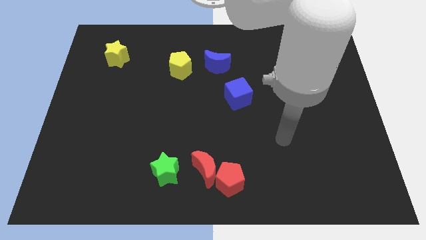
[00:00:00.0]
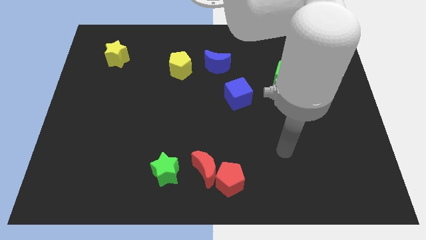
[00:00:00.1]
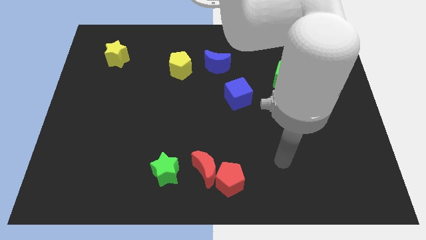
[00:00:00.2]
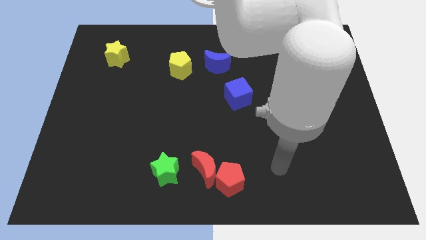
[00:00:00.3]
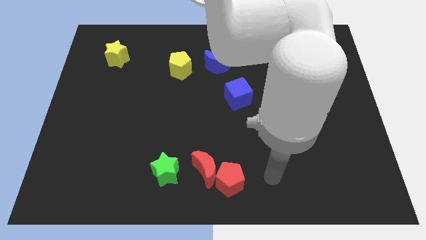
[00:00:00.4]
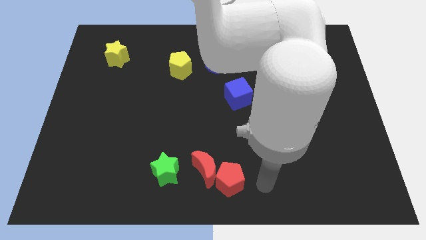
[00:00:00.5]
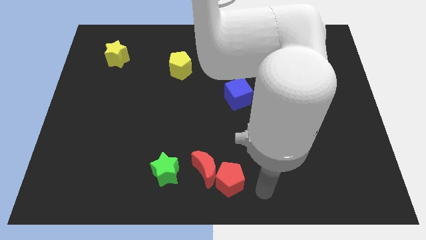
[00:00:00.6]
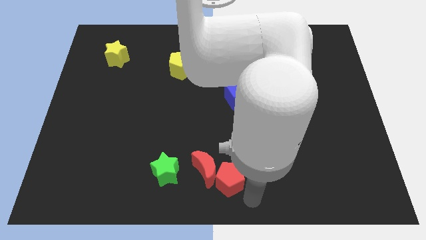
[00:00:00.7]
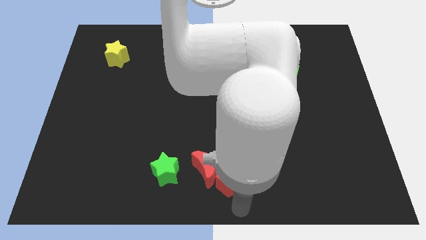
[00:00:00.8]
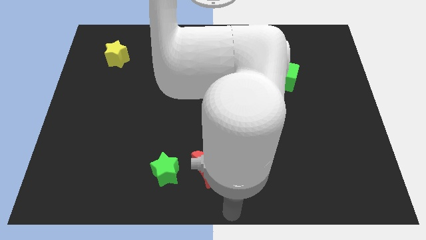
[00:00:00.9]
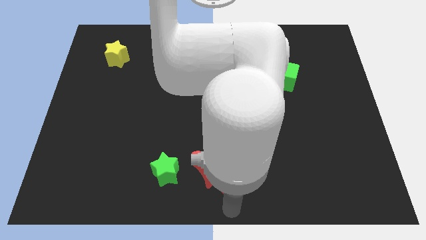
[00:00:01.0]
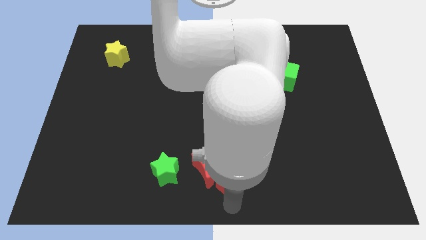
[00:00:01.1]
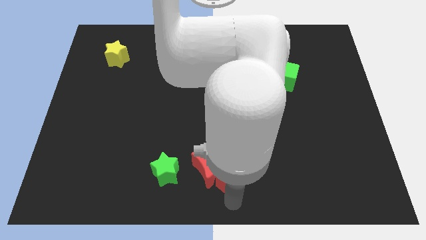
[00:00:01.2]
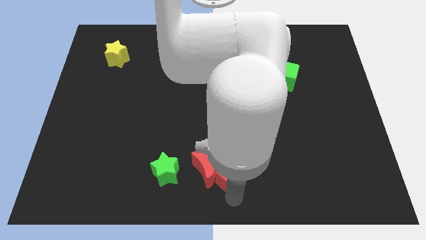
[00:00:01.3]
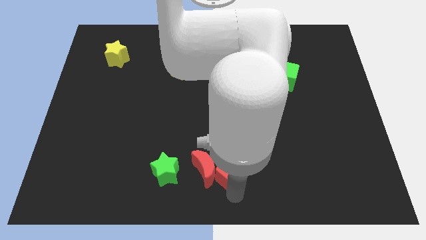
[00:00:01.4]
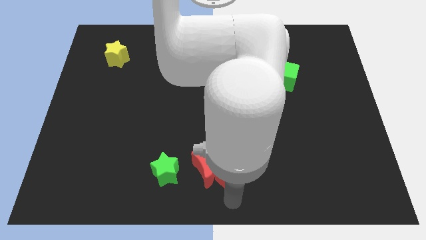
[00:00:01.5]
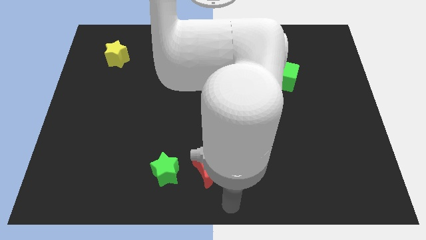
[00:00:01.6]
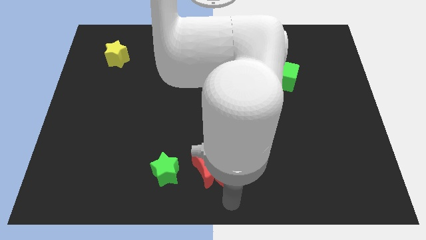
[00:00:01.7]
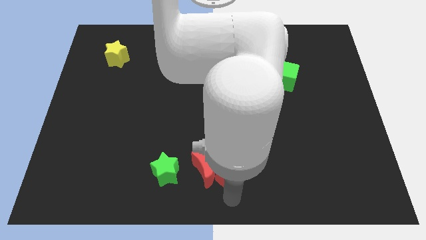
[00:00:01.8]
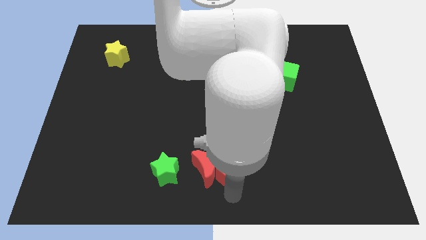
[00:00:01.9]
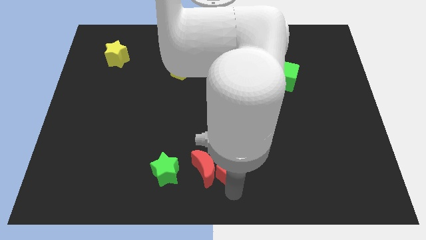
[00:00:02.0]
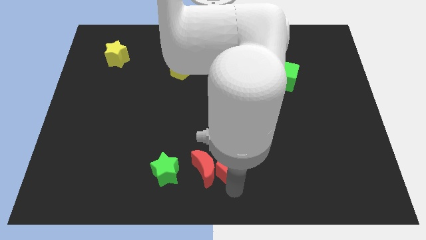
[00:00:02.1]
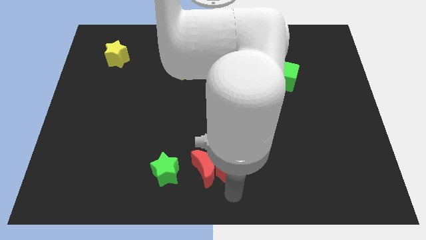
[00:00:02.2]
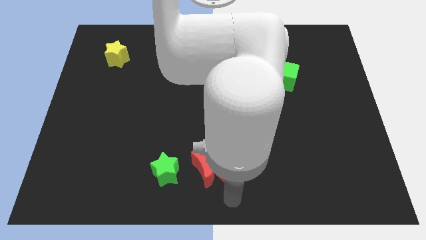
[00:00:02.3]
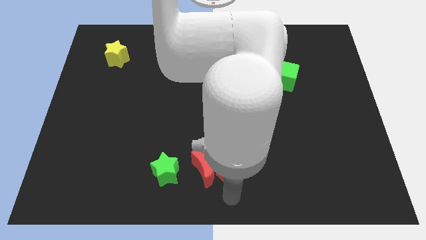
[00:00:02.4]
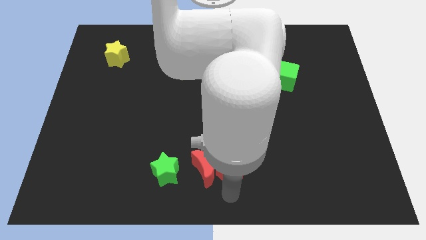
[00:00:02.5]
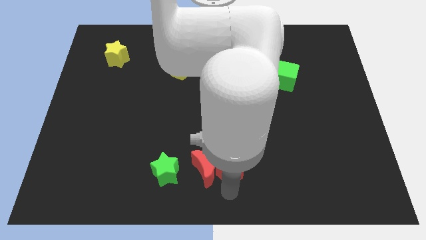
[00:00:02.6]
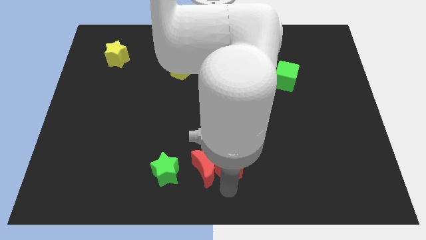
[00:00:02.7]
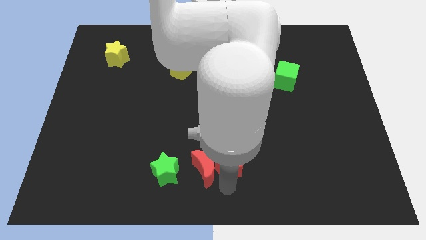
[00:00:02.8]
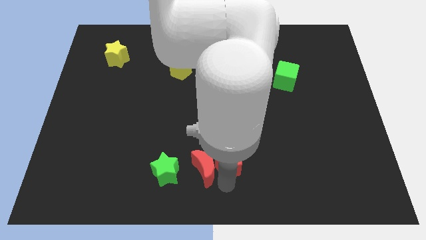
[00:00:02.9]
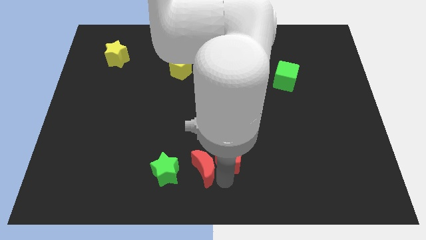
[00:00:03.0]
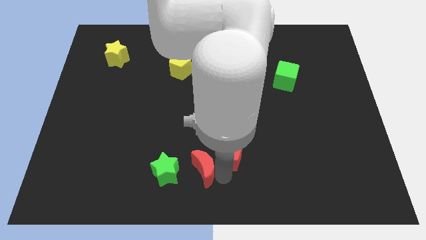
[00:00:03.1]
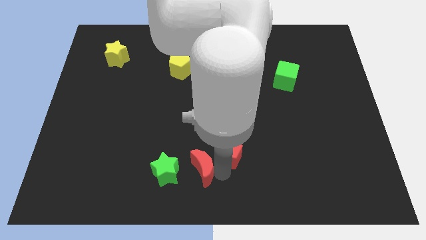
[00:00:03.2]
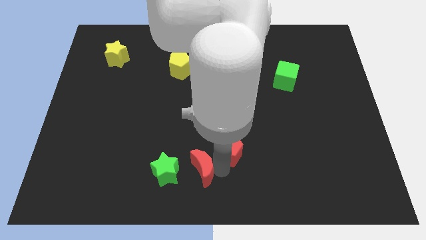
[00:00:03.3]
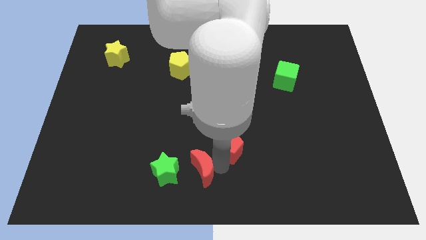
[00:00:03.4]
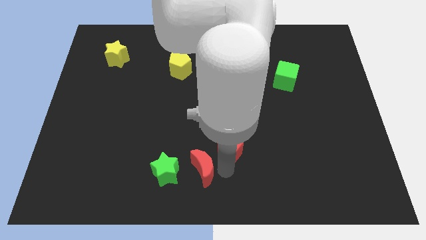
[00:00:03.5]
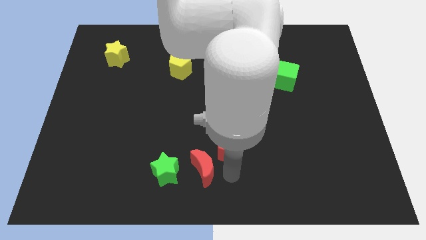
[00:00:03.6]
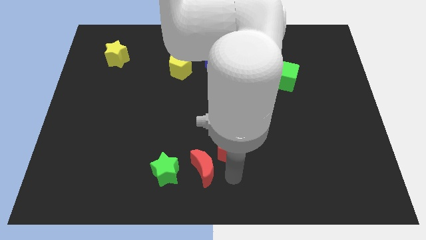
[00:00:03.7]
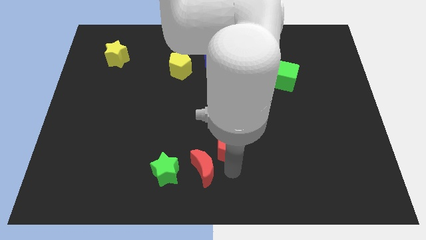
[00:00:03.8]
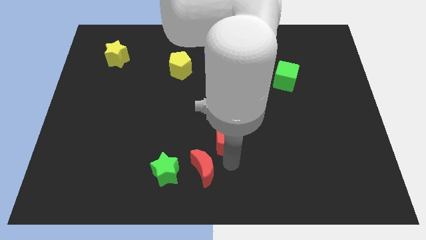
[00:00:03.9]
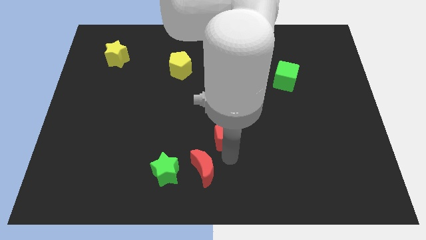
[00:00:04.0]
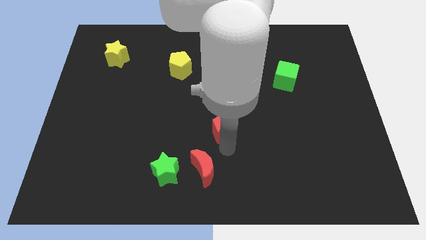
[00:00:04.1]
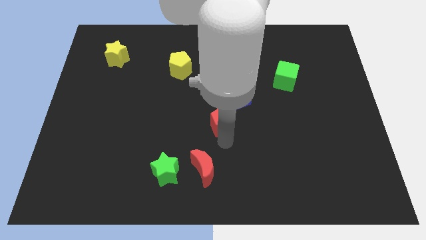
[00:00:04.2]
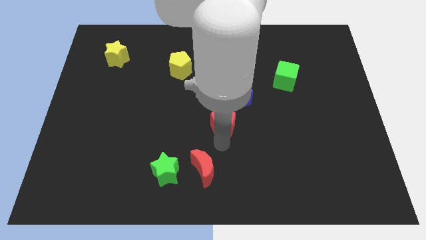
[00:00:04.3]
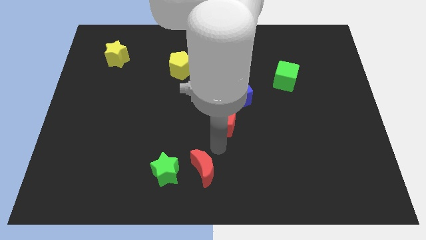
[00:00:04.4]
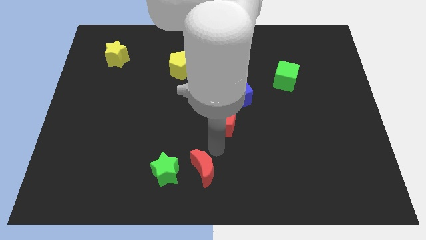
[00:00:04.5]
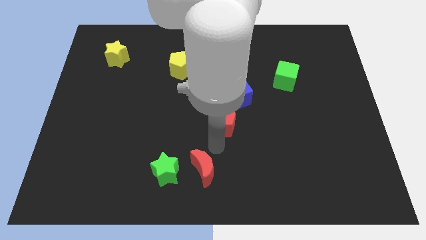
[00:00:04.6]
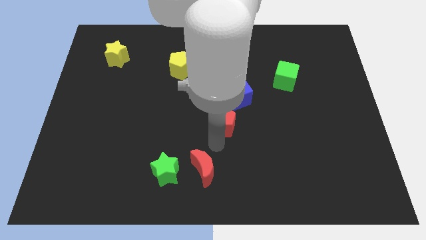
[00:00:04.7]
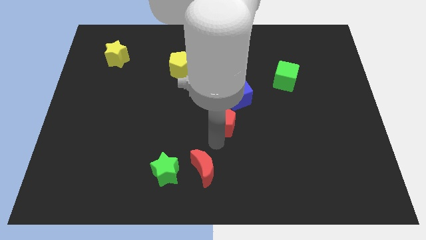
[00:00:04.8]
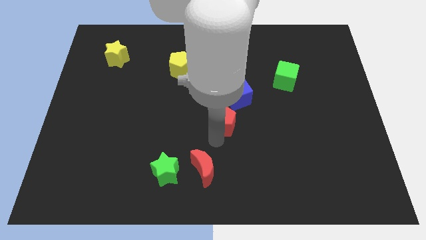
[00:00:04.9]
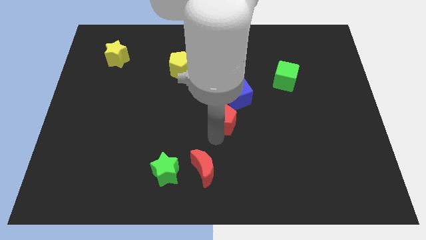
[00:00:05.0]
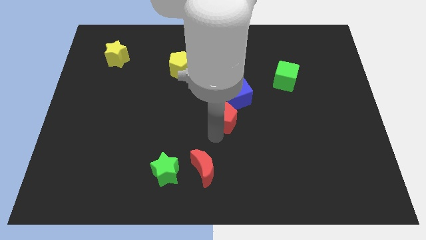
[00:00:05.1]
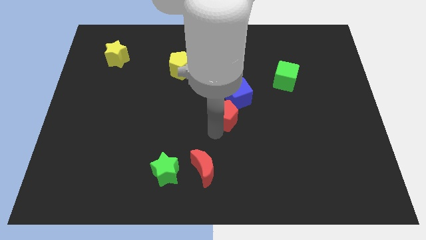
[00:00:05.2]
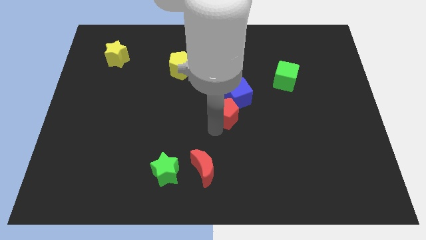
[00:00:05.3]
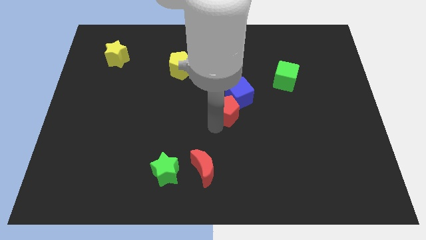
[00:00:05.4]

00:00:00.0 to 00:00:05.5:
push the red pentagon to the blue cube

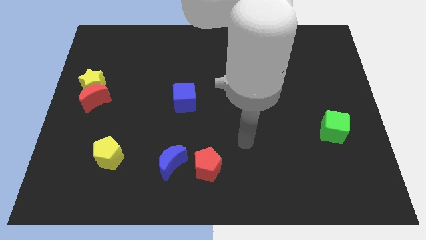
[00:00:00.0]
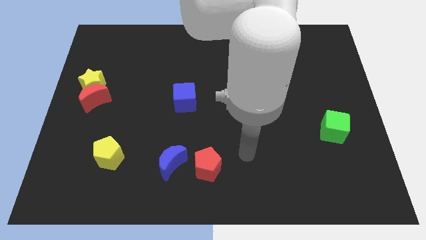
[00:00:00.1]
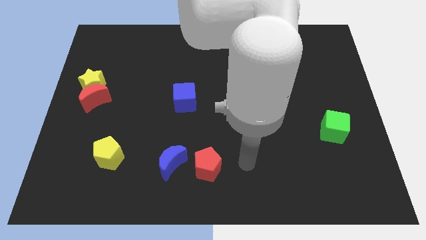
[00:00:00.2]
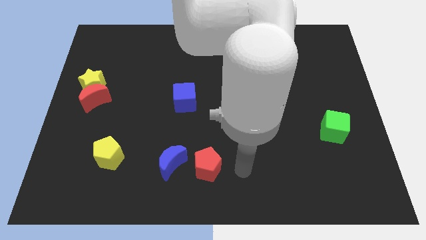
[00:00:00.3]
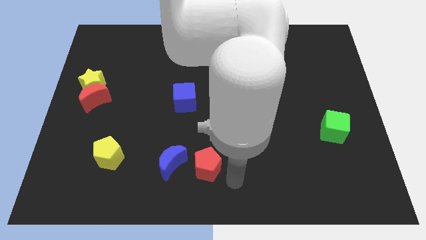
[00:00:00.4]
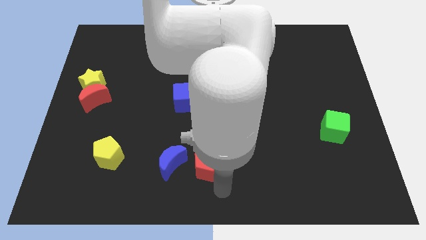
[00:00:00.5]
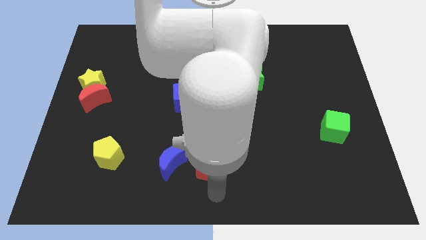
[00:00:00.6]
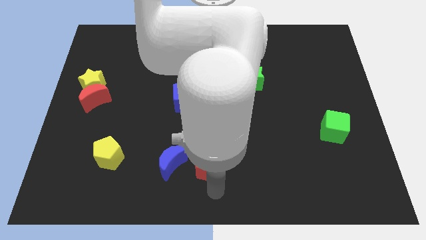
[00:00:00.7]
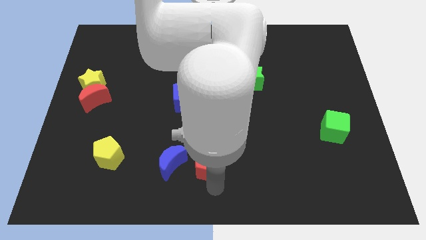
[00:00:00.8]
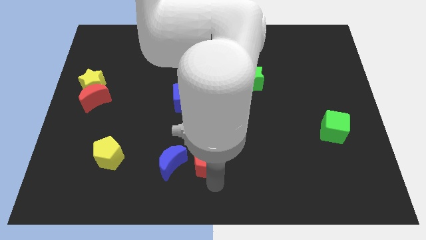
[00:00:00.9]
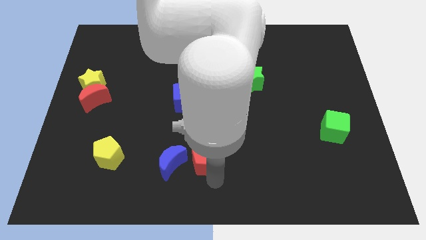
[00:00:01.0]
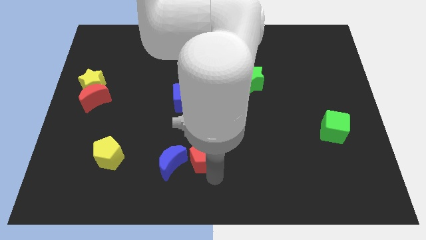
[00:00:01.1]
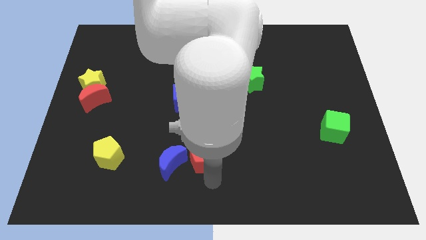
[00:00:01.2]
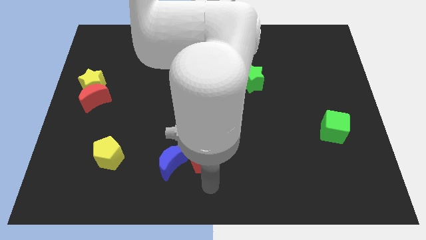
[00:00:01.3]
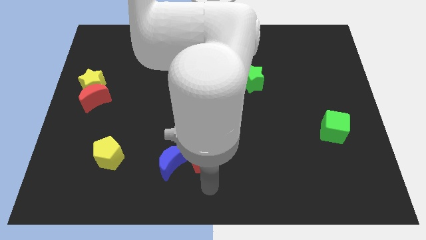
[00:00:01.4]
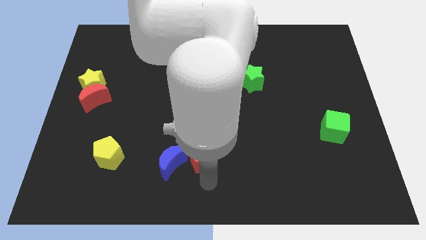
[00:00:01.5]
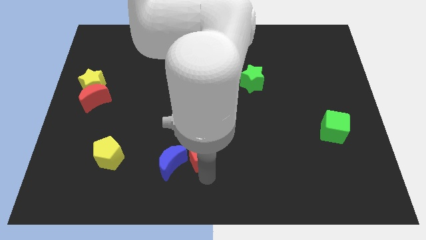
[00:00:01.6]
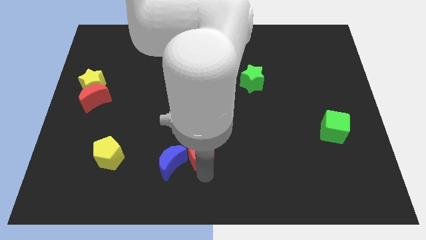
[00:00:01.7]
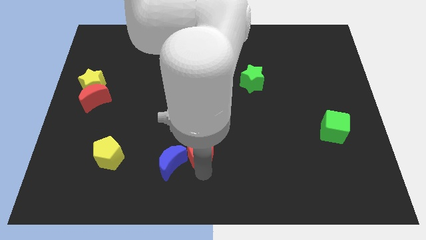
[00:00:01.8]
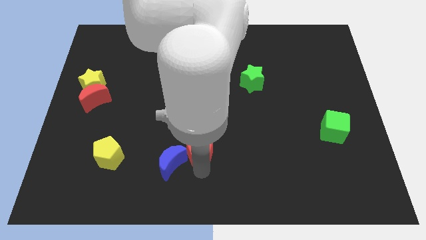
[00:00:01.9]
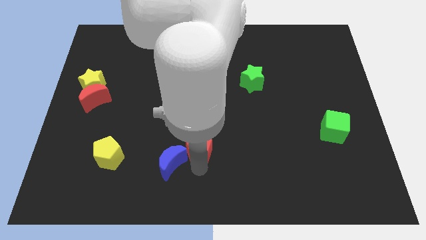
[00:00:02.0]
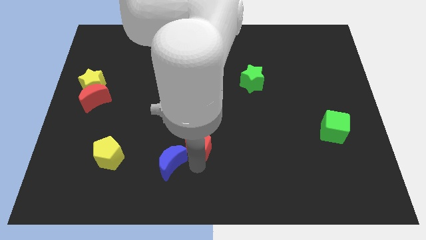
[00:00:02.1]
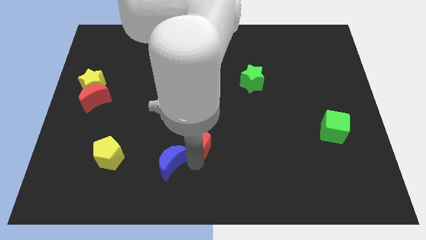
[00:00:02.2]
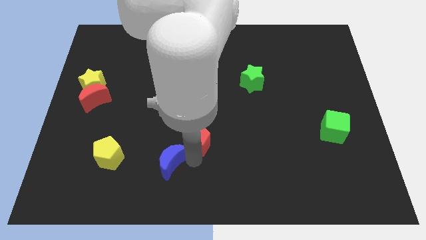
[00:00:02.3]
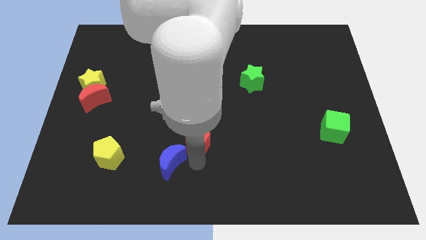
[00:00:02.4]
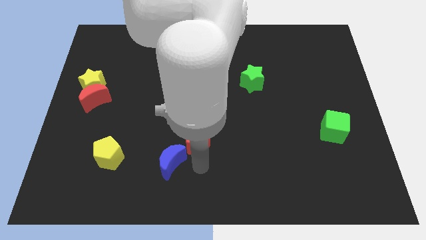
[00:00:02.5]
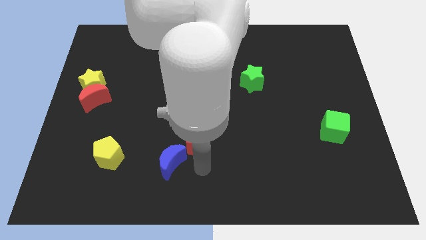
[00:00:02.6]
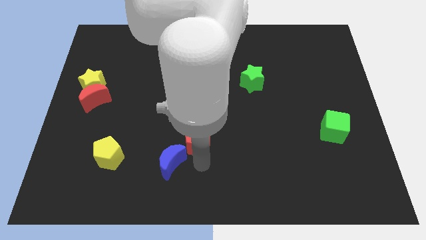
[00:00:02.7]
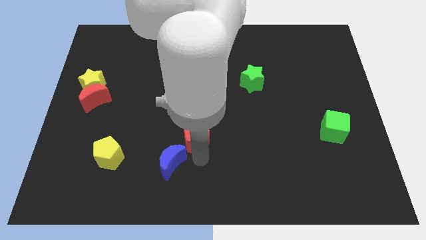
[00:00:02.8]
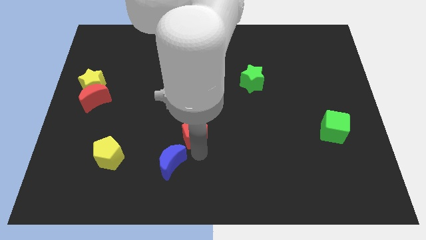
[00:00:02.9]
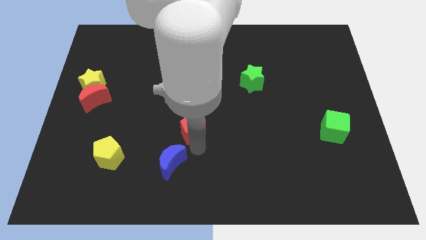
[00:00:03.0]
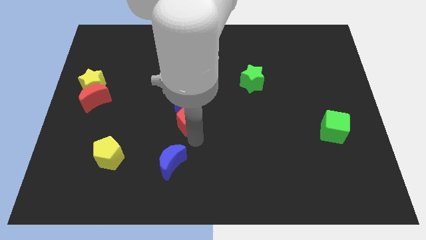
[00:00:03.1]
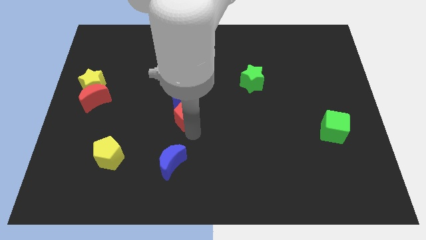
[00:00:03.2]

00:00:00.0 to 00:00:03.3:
push the red pentagon close to the blue cube
